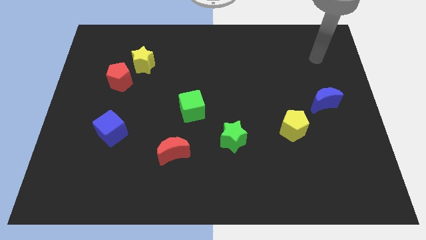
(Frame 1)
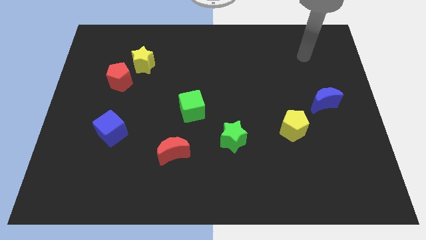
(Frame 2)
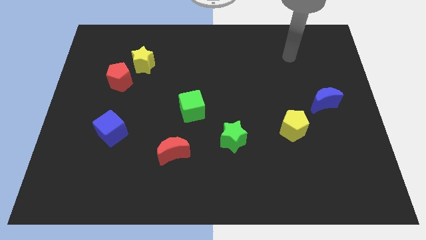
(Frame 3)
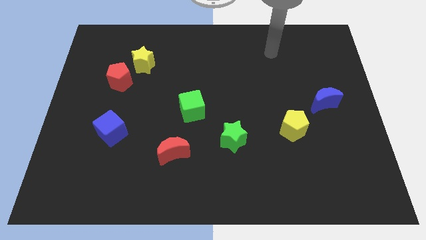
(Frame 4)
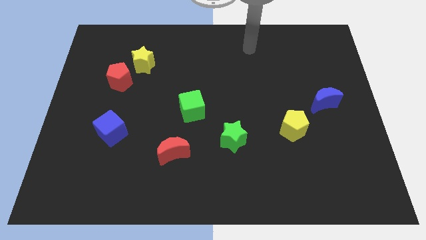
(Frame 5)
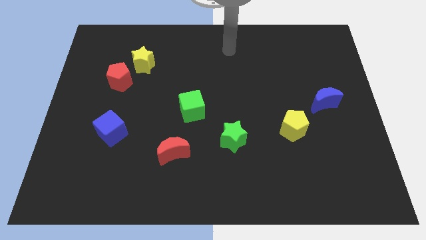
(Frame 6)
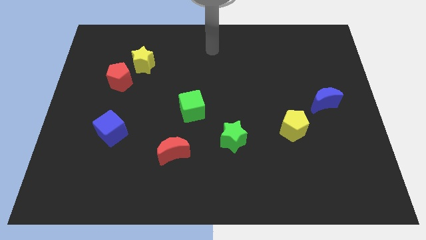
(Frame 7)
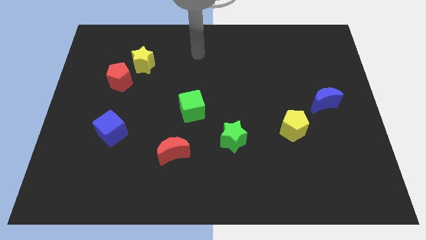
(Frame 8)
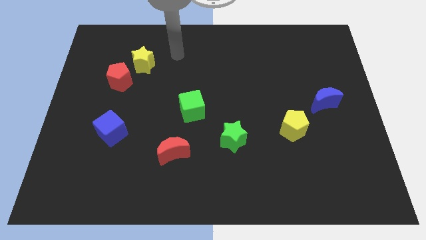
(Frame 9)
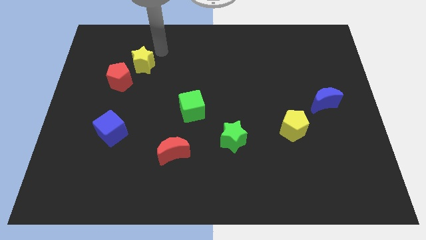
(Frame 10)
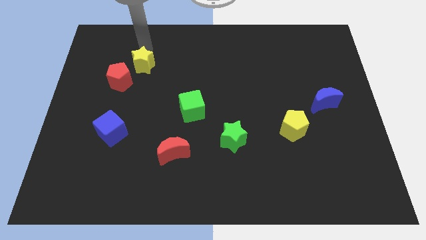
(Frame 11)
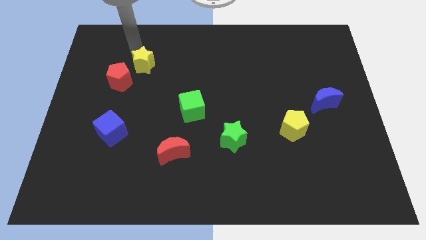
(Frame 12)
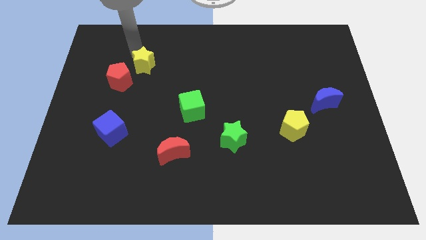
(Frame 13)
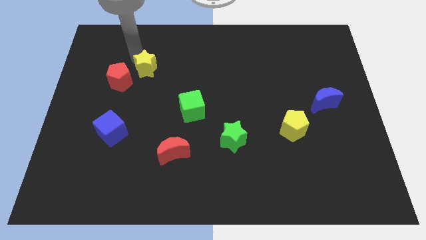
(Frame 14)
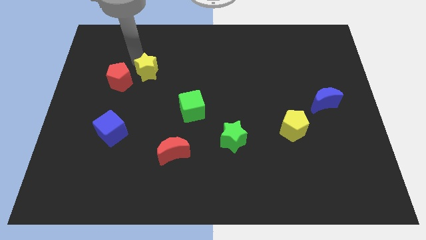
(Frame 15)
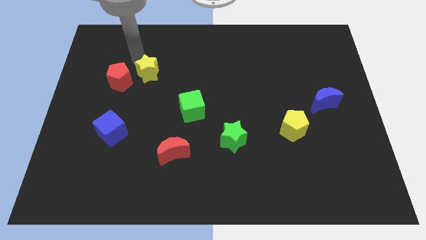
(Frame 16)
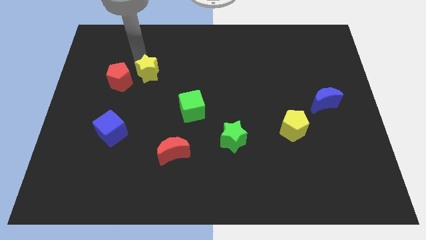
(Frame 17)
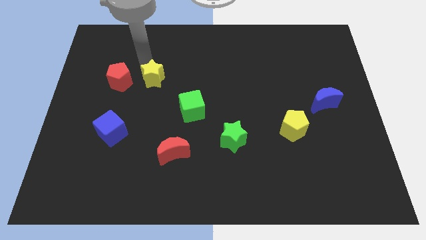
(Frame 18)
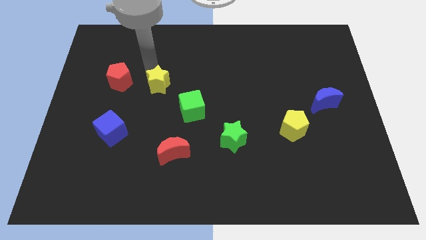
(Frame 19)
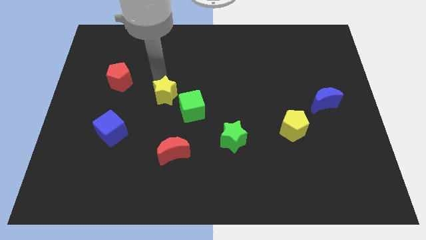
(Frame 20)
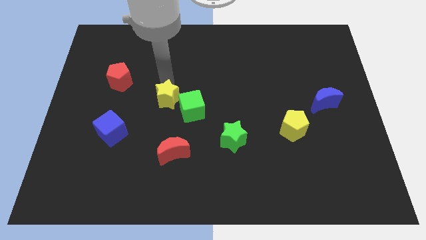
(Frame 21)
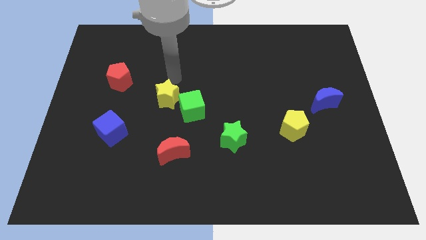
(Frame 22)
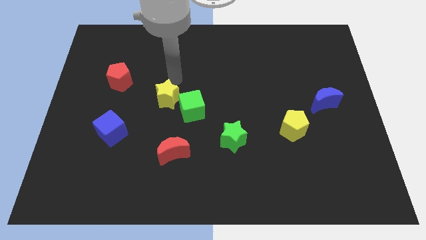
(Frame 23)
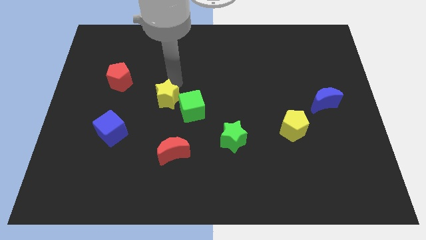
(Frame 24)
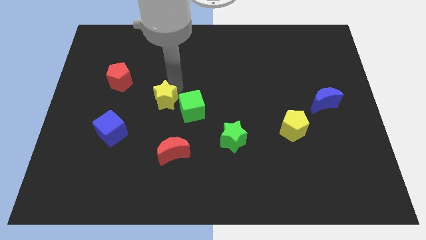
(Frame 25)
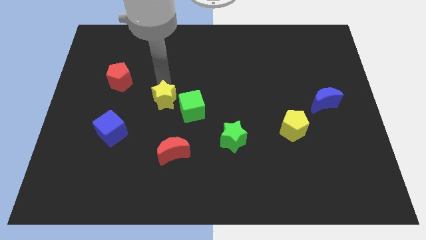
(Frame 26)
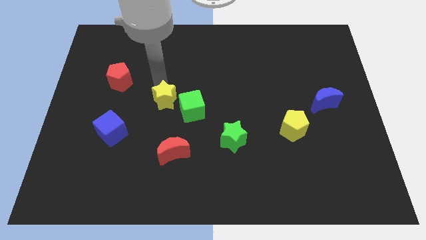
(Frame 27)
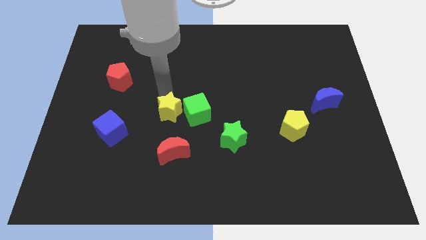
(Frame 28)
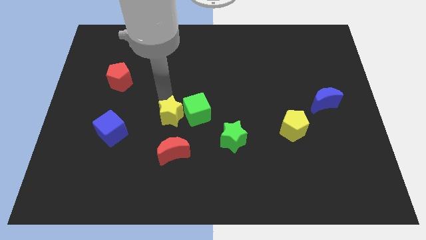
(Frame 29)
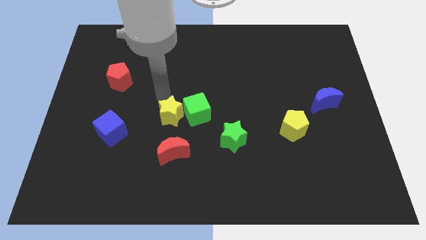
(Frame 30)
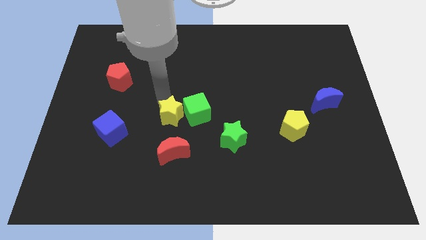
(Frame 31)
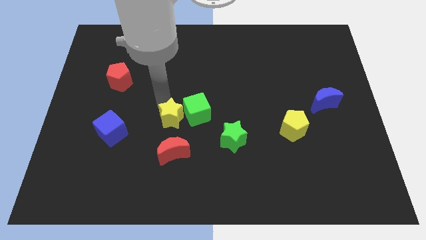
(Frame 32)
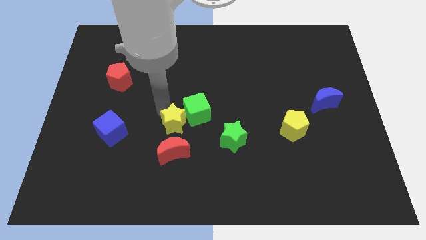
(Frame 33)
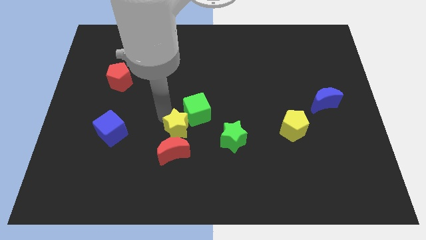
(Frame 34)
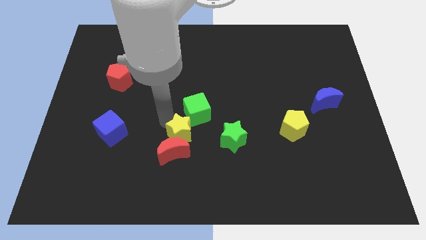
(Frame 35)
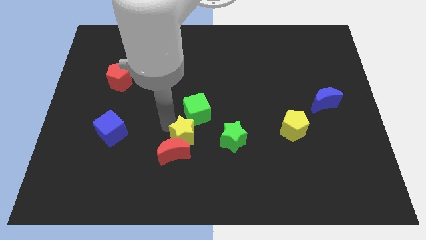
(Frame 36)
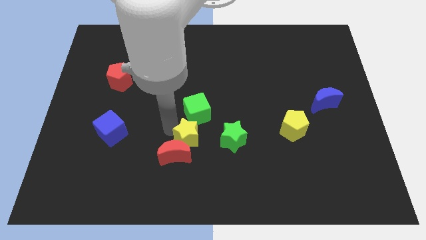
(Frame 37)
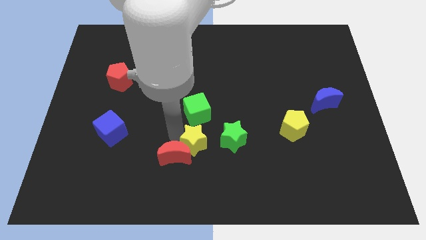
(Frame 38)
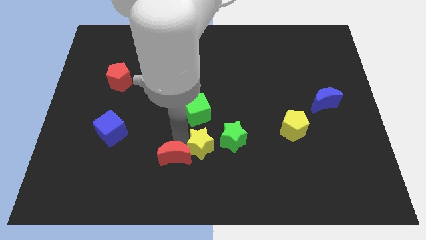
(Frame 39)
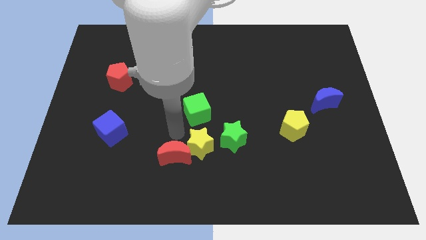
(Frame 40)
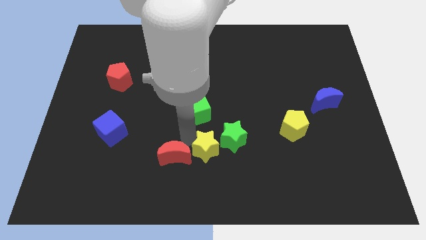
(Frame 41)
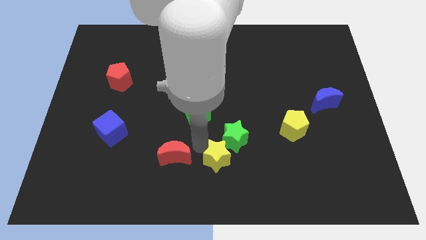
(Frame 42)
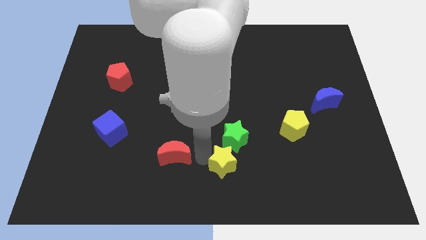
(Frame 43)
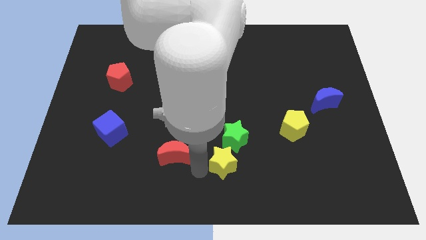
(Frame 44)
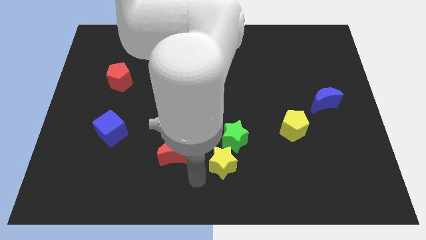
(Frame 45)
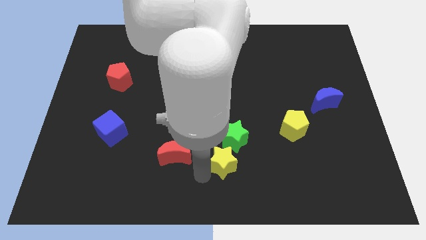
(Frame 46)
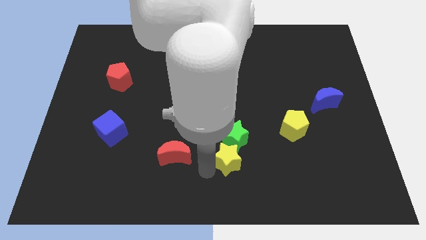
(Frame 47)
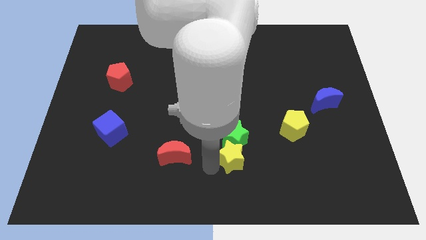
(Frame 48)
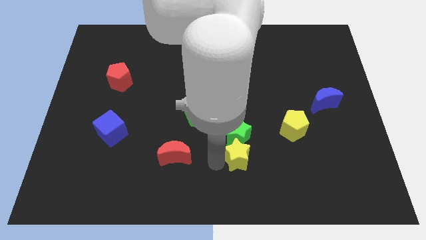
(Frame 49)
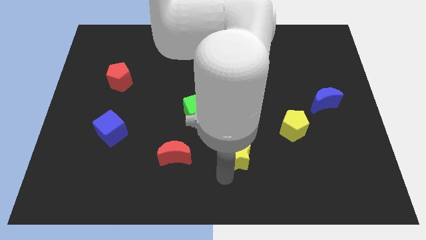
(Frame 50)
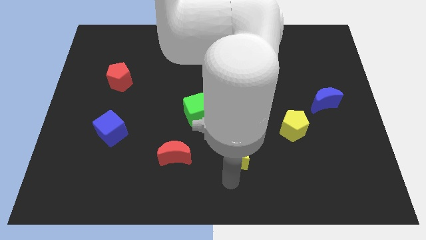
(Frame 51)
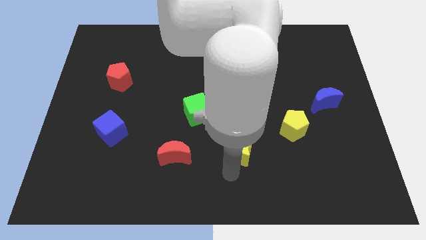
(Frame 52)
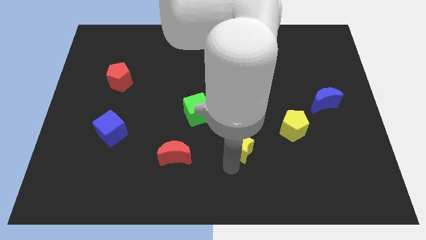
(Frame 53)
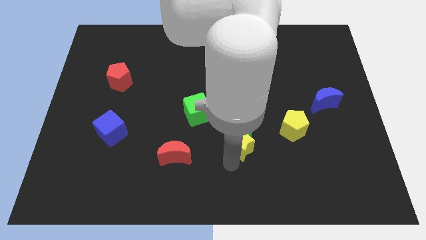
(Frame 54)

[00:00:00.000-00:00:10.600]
move the yellow star left of the yellow pentagon

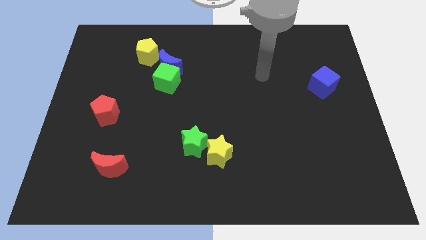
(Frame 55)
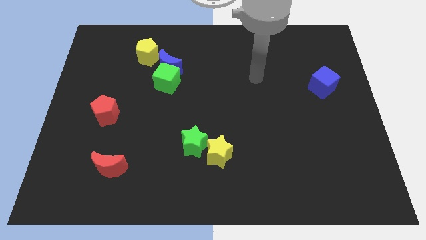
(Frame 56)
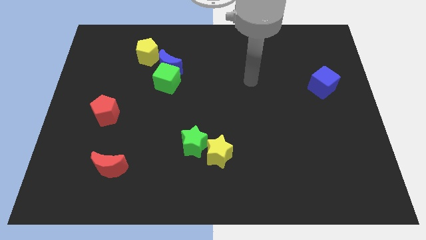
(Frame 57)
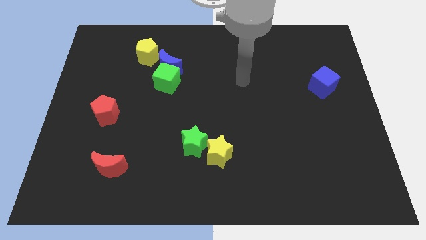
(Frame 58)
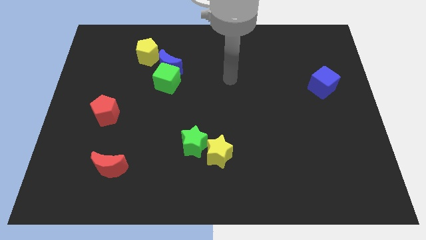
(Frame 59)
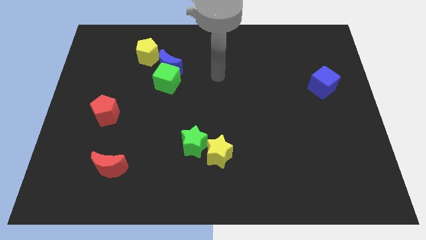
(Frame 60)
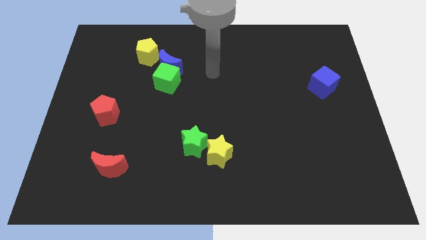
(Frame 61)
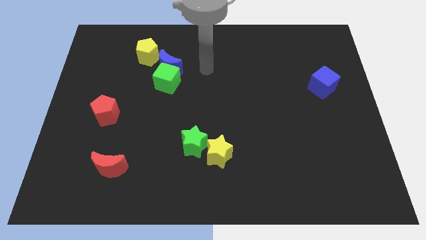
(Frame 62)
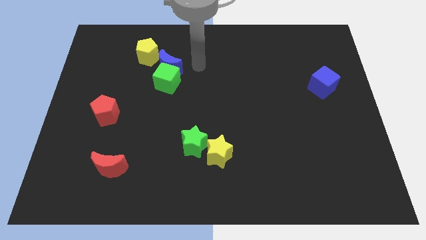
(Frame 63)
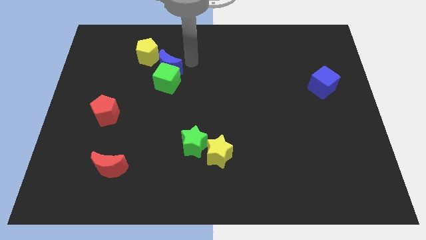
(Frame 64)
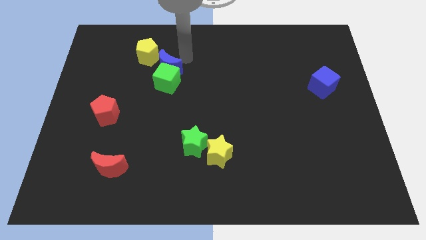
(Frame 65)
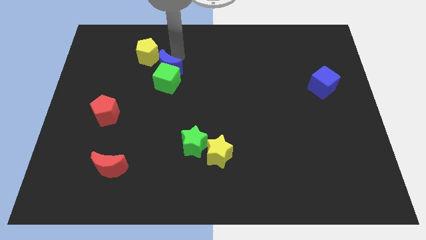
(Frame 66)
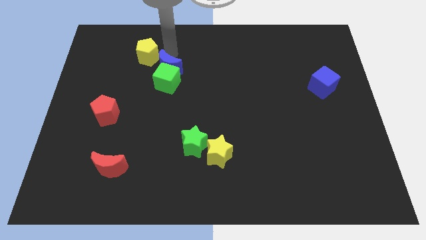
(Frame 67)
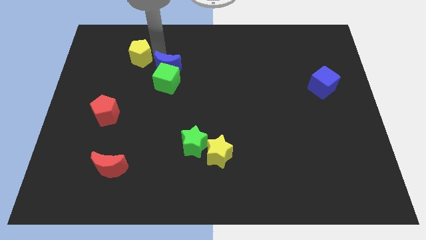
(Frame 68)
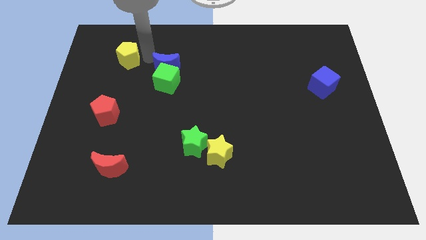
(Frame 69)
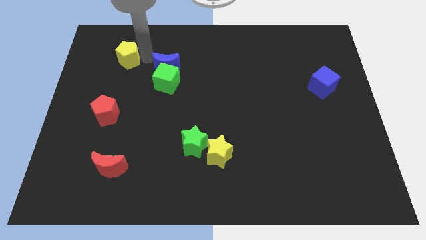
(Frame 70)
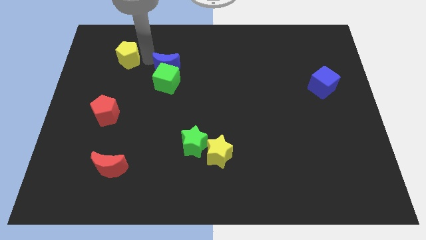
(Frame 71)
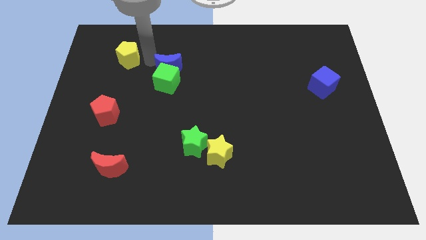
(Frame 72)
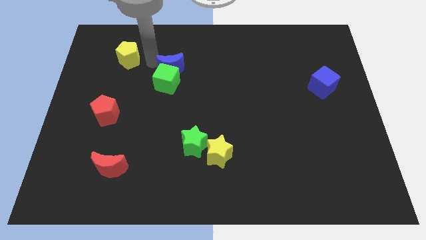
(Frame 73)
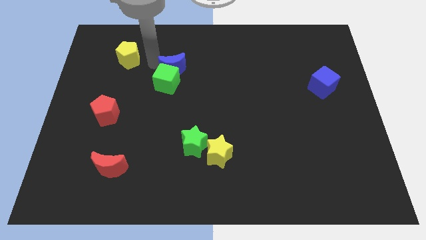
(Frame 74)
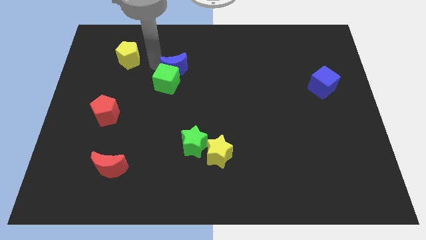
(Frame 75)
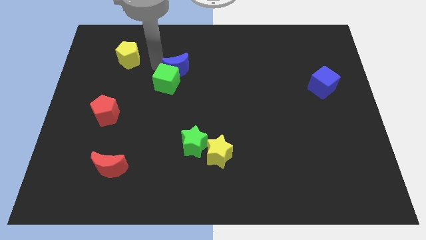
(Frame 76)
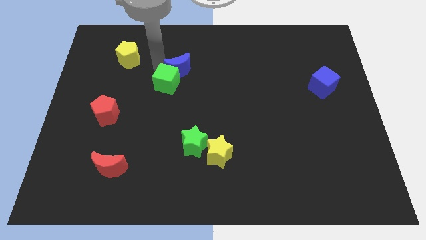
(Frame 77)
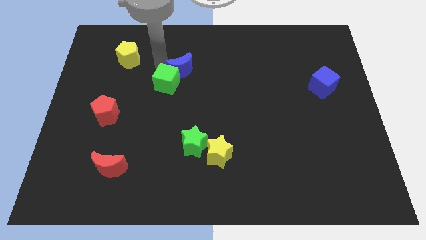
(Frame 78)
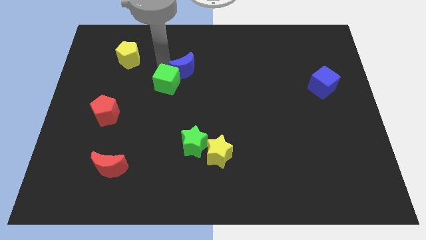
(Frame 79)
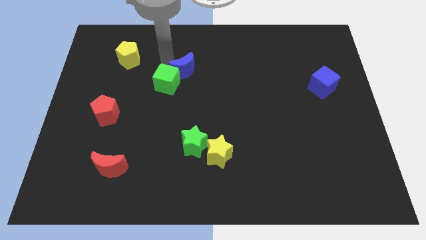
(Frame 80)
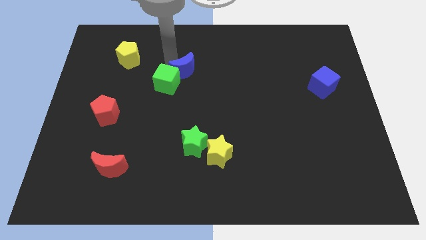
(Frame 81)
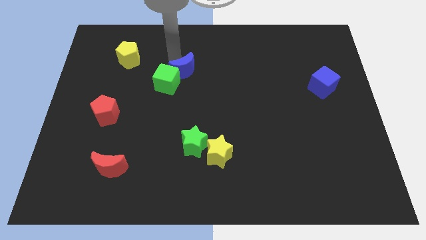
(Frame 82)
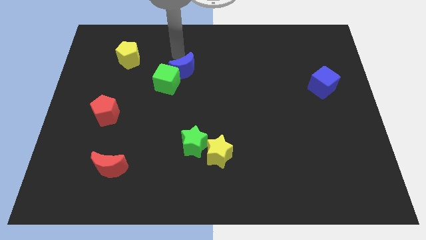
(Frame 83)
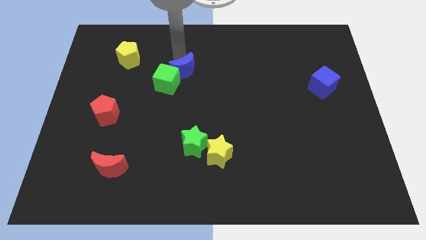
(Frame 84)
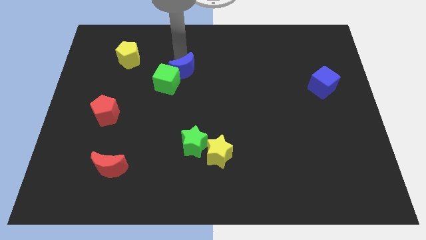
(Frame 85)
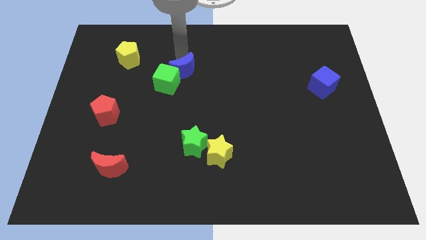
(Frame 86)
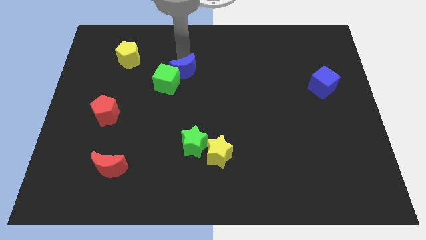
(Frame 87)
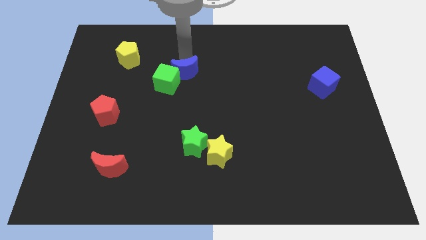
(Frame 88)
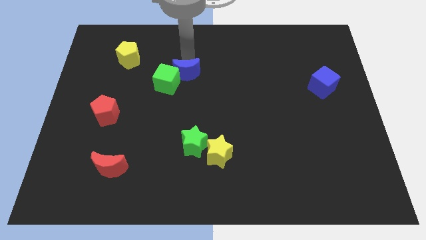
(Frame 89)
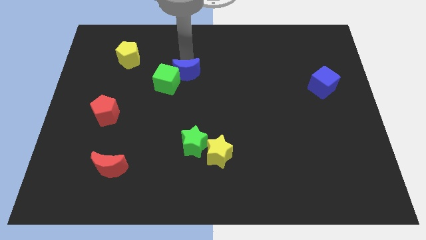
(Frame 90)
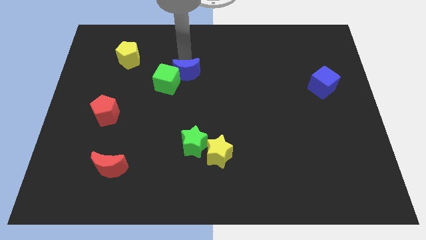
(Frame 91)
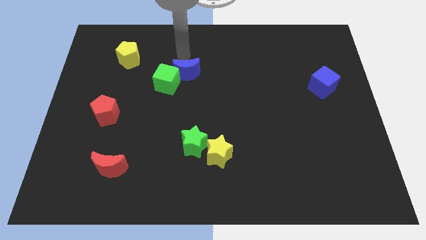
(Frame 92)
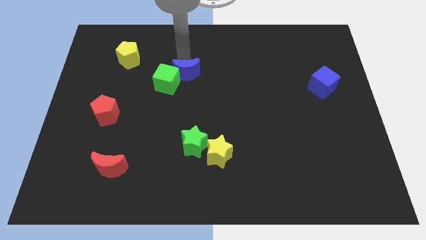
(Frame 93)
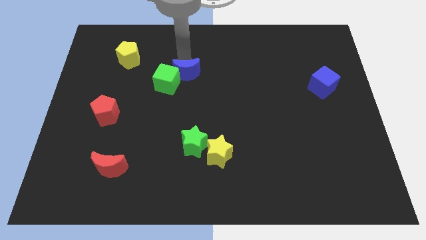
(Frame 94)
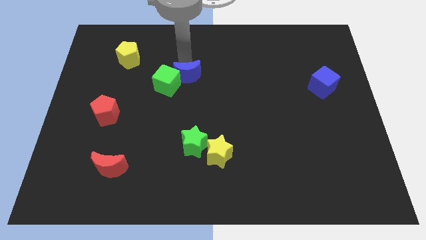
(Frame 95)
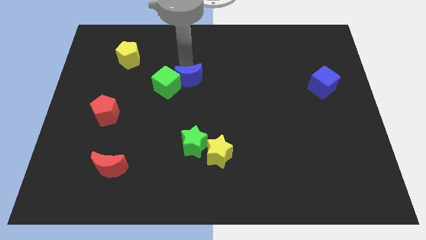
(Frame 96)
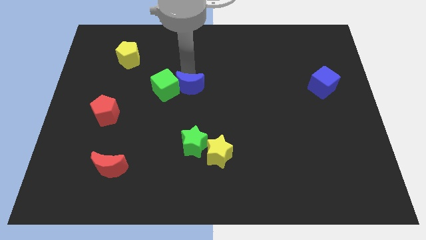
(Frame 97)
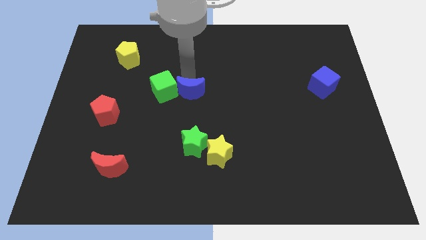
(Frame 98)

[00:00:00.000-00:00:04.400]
put the blue moon to the top of the green star
